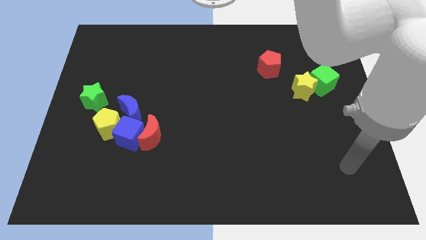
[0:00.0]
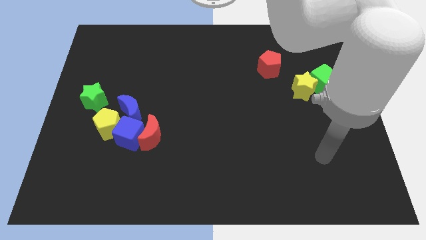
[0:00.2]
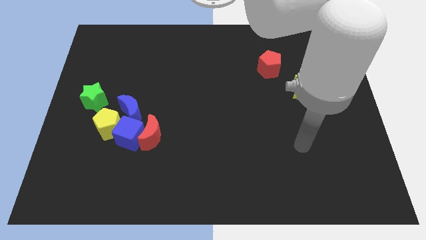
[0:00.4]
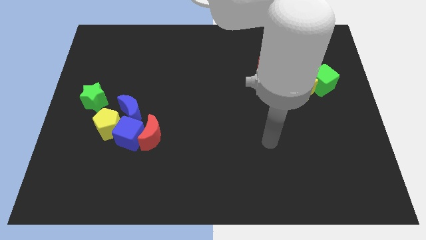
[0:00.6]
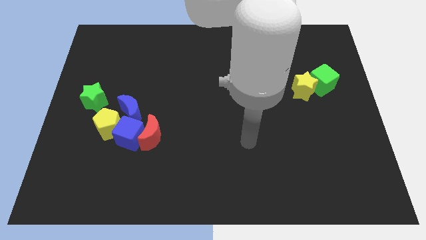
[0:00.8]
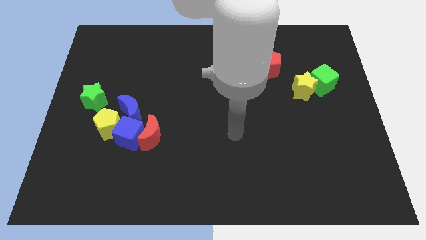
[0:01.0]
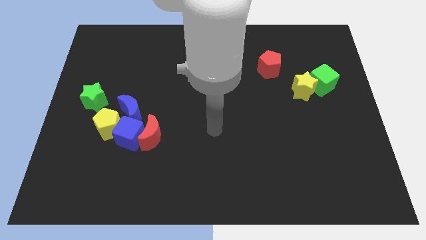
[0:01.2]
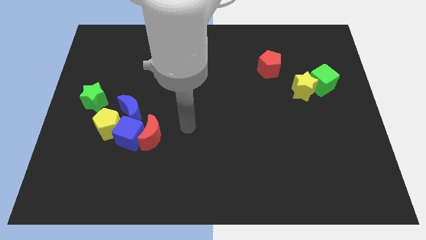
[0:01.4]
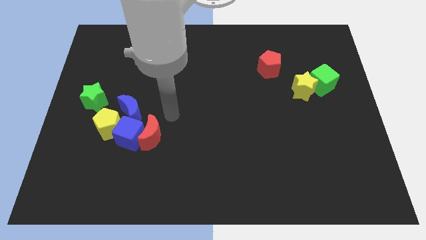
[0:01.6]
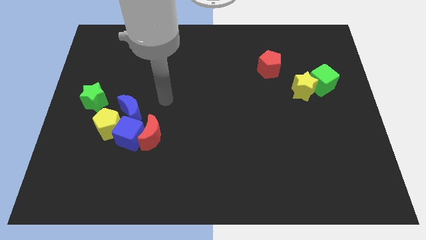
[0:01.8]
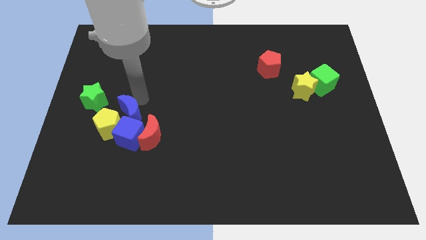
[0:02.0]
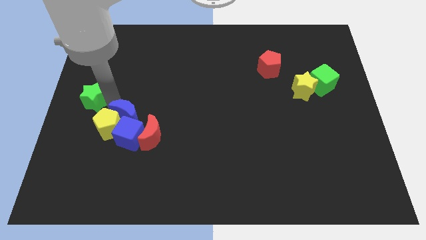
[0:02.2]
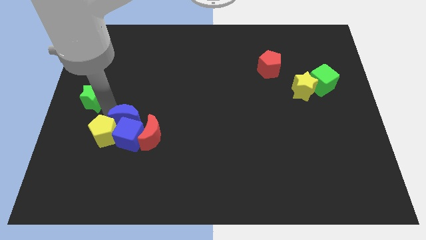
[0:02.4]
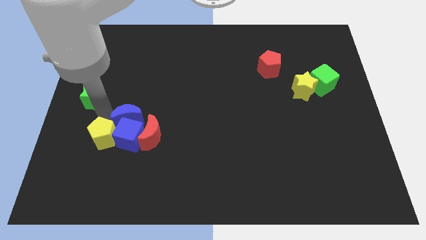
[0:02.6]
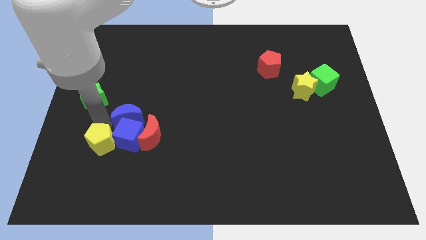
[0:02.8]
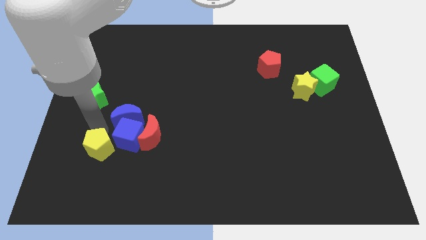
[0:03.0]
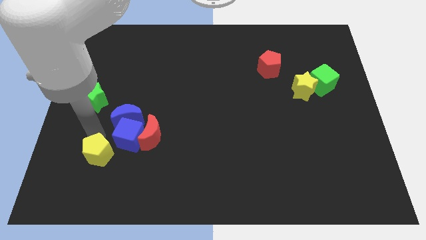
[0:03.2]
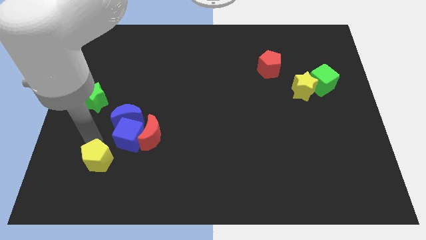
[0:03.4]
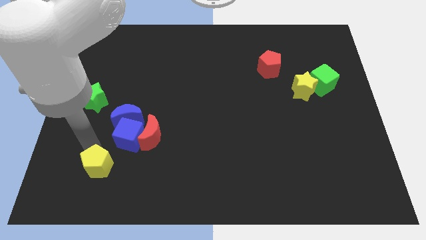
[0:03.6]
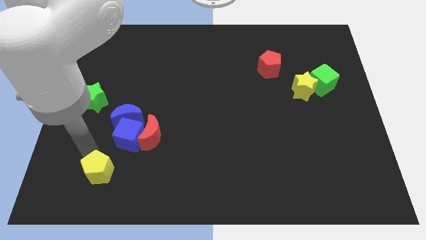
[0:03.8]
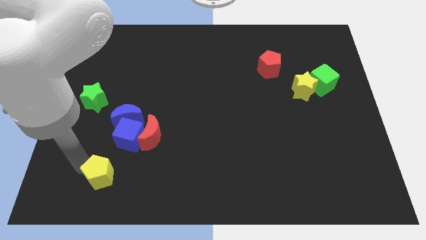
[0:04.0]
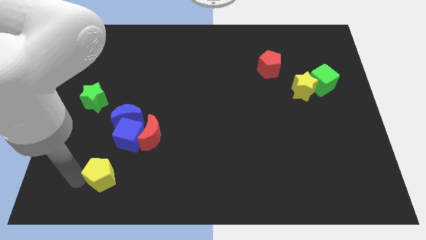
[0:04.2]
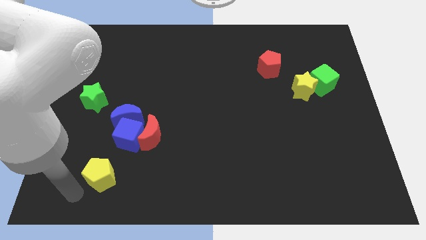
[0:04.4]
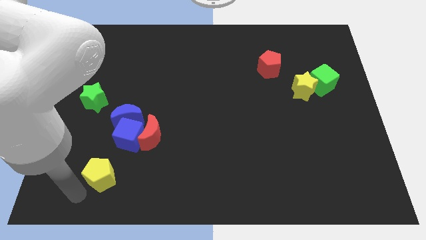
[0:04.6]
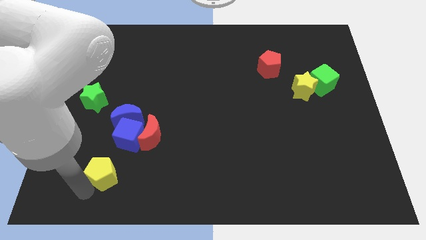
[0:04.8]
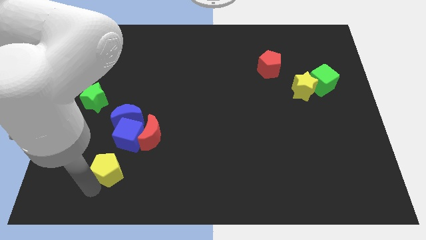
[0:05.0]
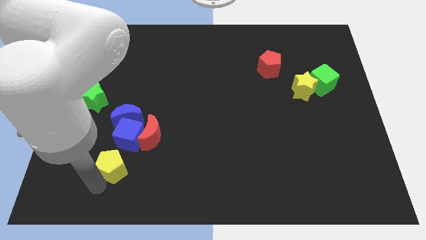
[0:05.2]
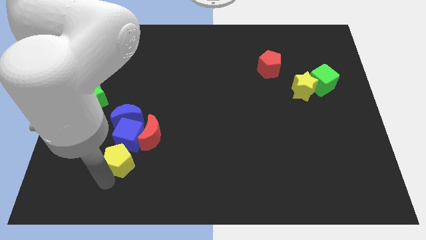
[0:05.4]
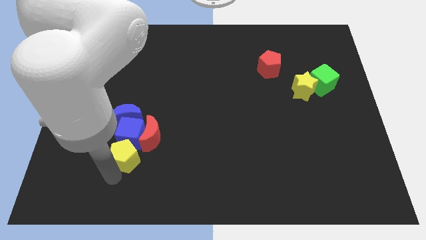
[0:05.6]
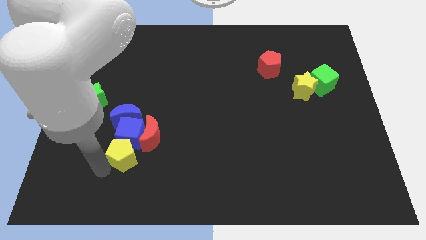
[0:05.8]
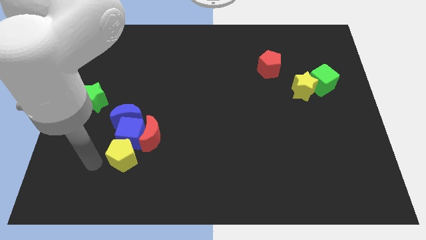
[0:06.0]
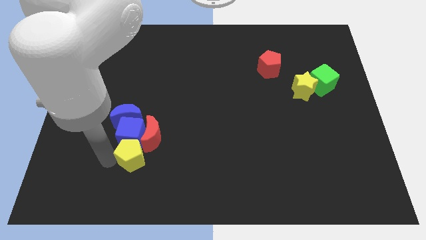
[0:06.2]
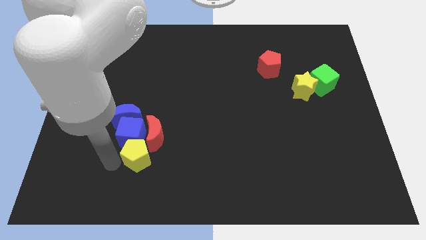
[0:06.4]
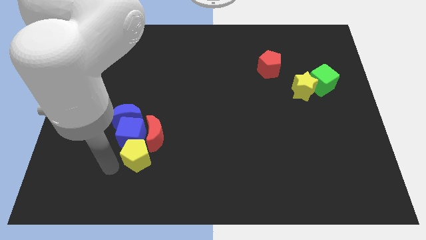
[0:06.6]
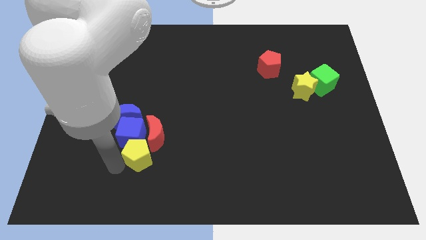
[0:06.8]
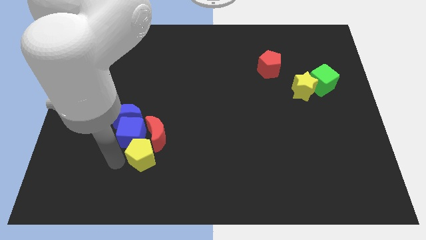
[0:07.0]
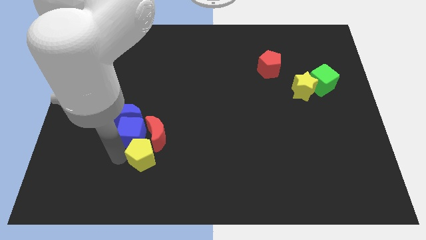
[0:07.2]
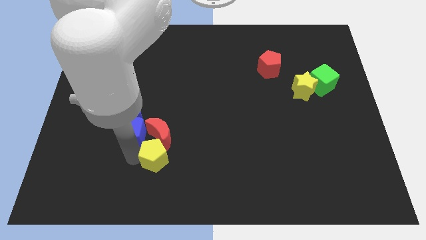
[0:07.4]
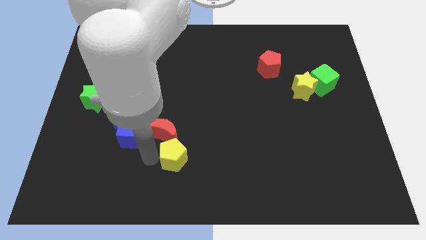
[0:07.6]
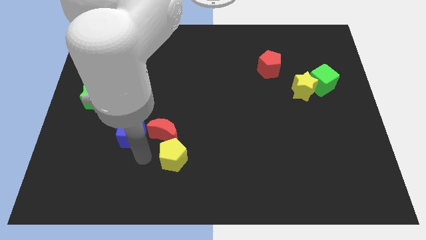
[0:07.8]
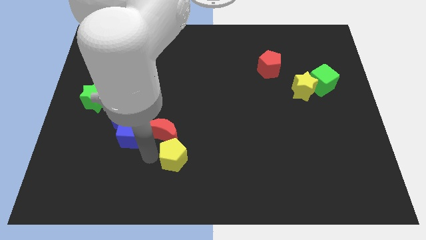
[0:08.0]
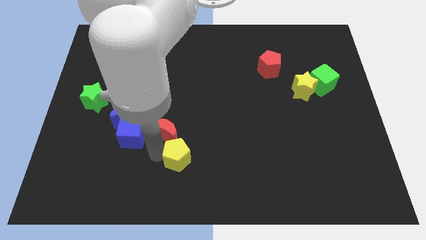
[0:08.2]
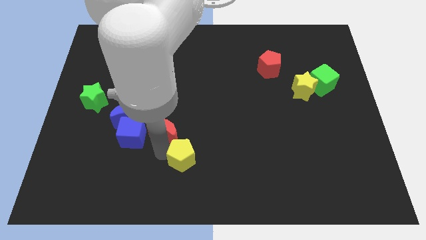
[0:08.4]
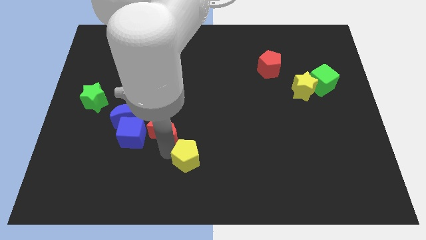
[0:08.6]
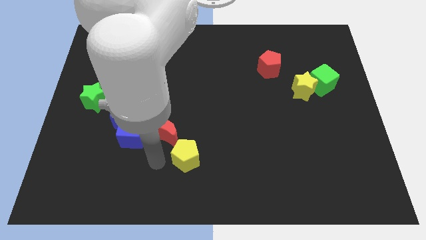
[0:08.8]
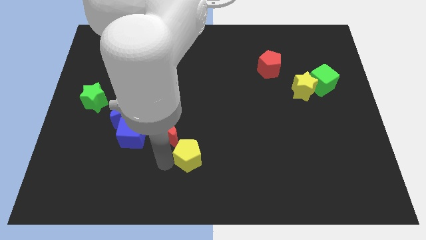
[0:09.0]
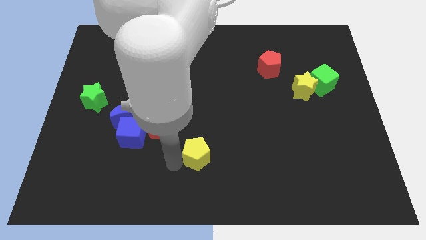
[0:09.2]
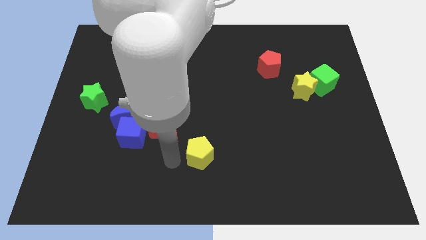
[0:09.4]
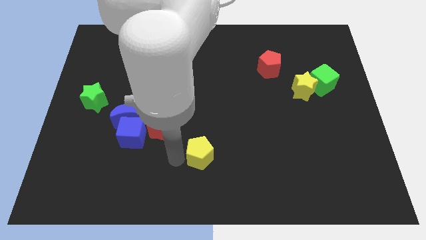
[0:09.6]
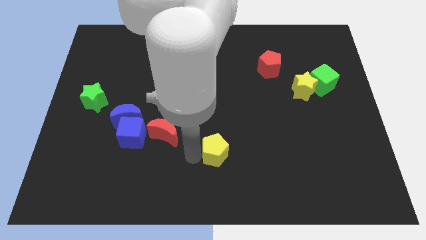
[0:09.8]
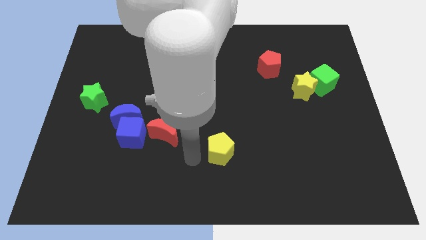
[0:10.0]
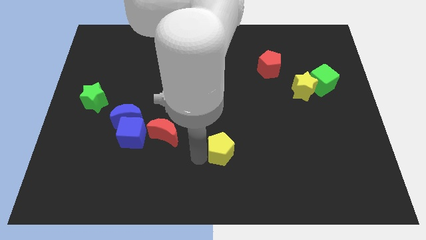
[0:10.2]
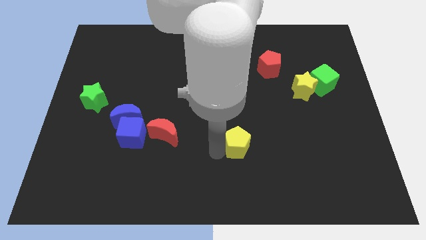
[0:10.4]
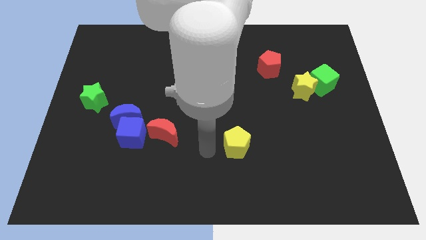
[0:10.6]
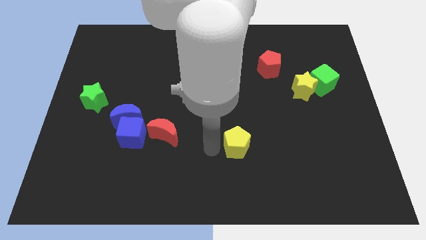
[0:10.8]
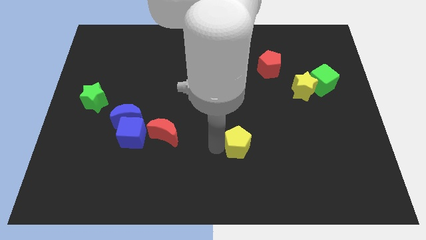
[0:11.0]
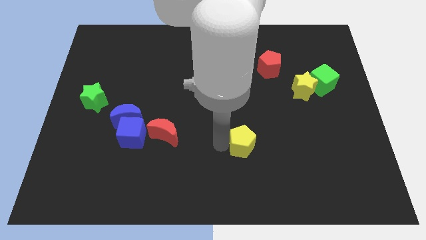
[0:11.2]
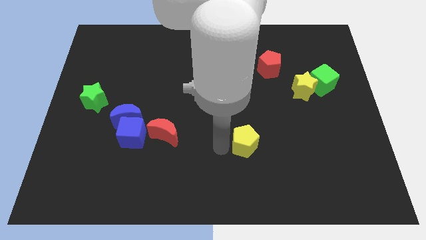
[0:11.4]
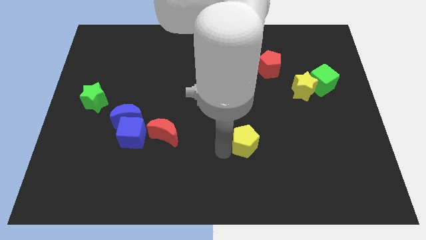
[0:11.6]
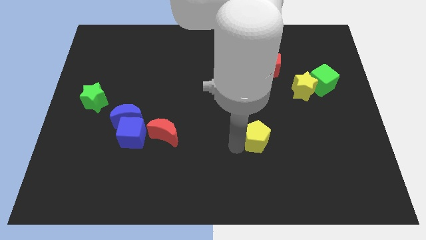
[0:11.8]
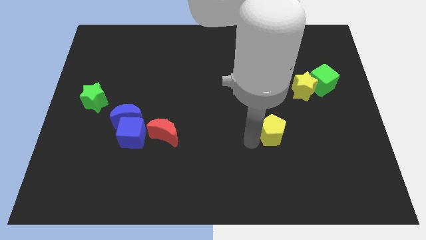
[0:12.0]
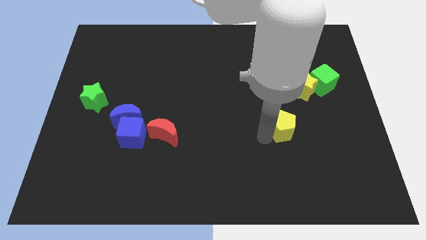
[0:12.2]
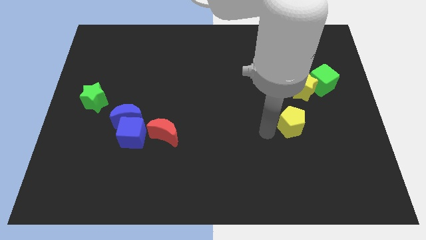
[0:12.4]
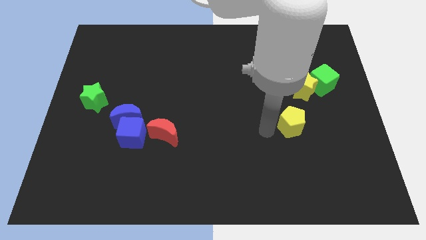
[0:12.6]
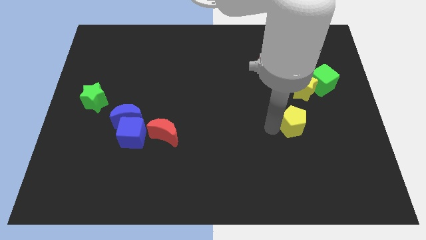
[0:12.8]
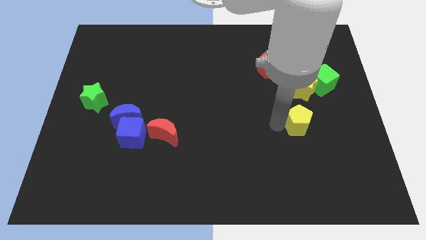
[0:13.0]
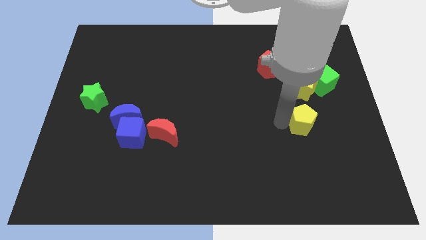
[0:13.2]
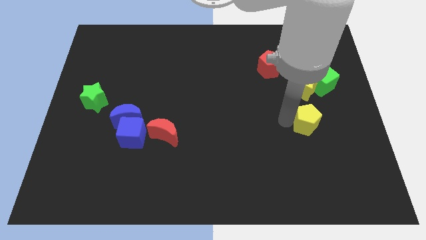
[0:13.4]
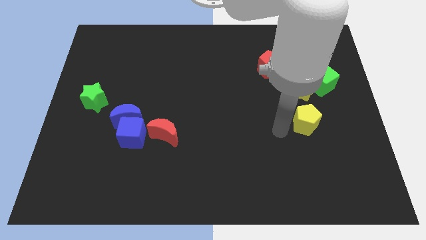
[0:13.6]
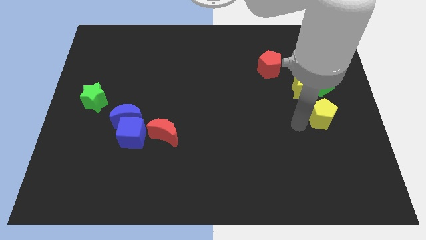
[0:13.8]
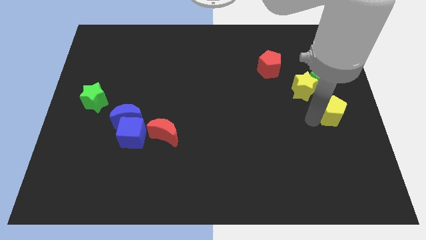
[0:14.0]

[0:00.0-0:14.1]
move the yellow pentagon to the right side of the board
